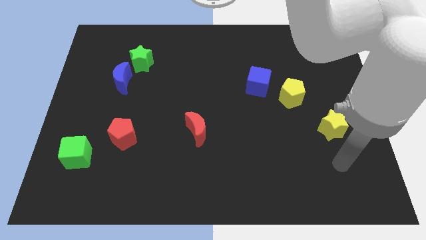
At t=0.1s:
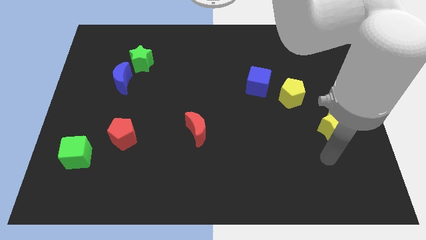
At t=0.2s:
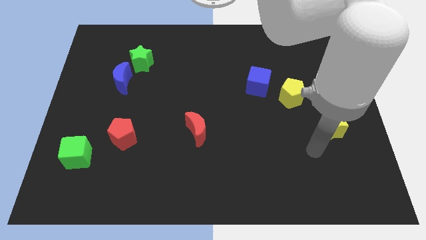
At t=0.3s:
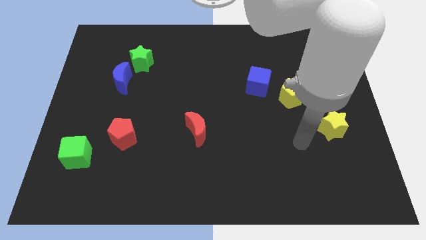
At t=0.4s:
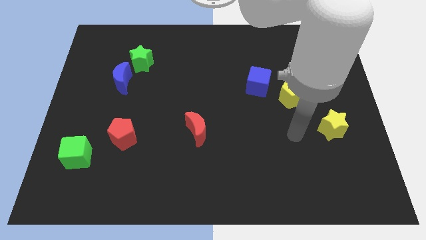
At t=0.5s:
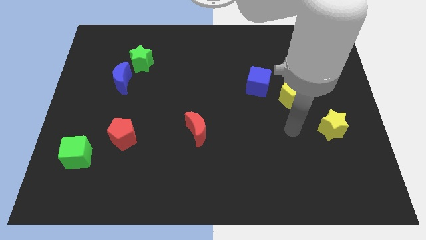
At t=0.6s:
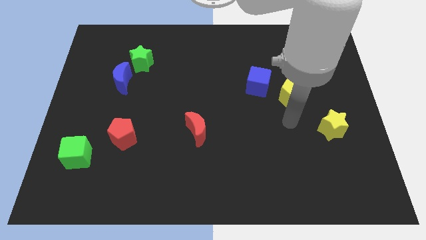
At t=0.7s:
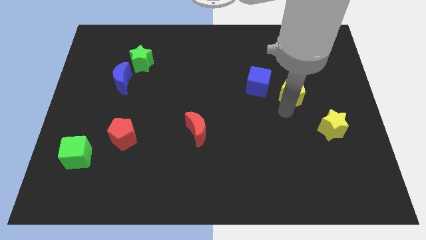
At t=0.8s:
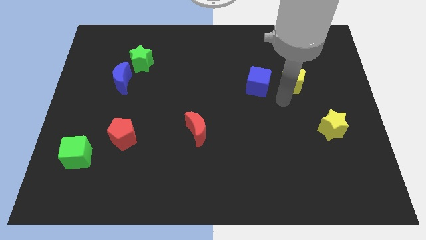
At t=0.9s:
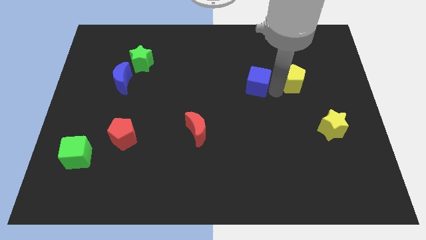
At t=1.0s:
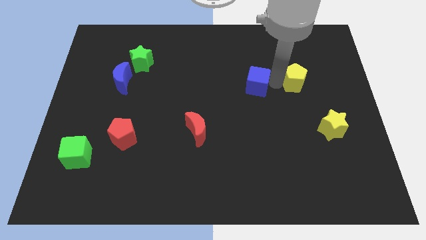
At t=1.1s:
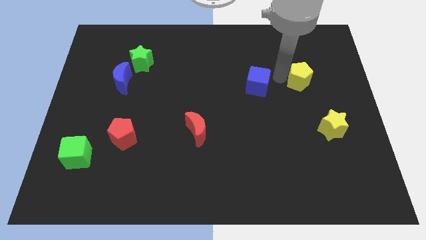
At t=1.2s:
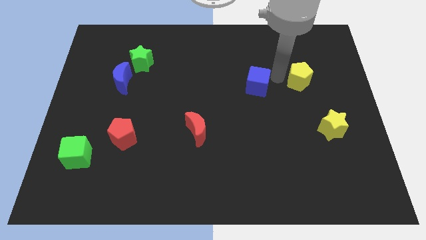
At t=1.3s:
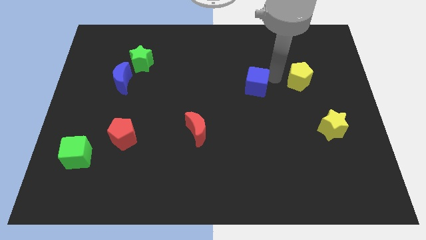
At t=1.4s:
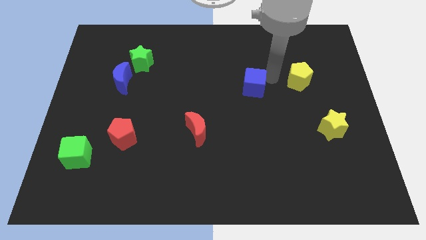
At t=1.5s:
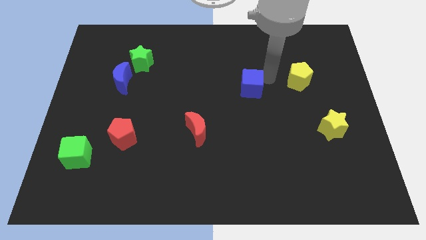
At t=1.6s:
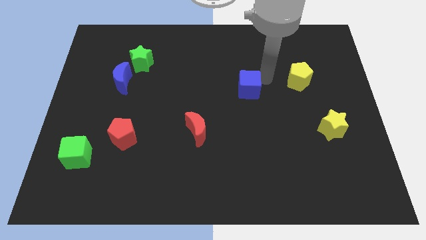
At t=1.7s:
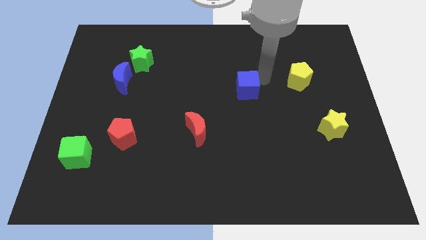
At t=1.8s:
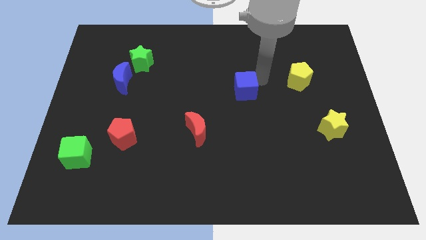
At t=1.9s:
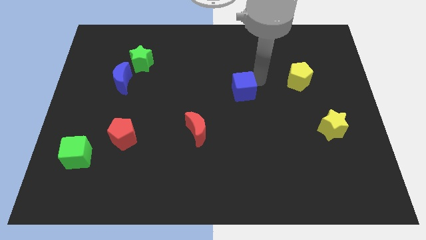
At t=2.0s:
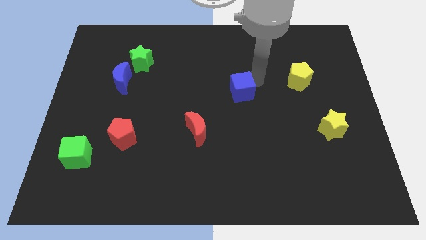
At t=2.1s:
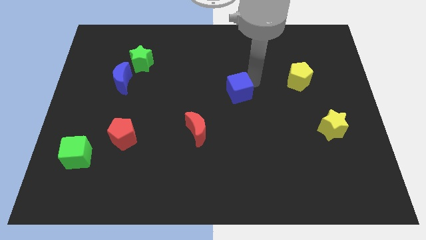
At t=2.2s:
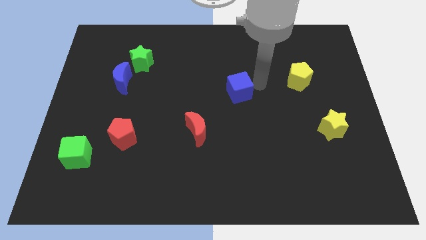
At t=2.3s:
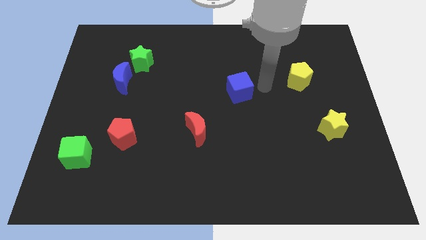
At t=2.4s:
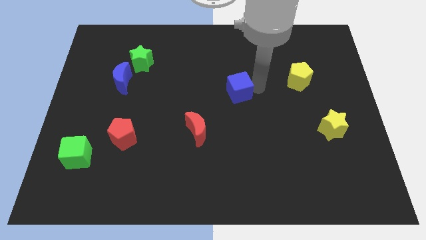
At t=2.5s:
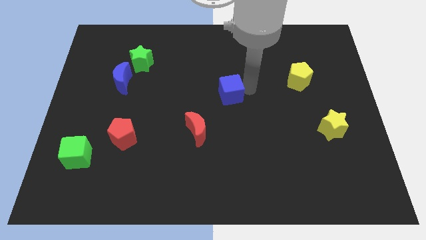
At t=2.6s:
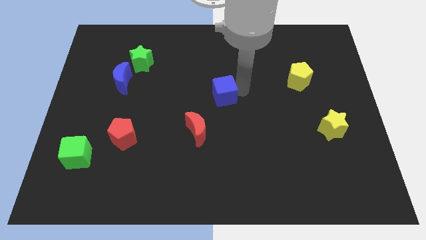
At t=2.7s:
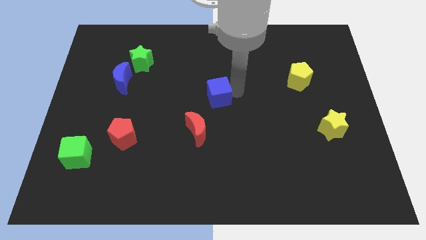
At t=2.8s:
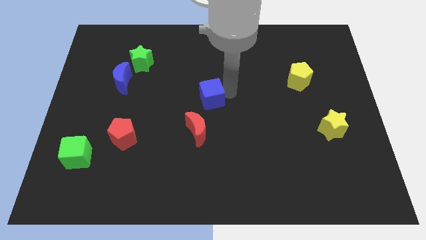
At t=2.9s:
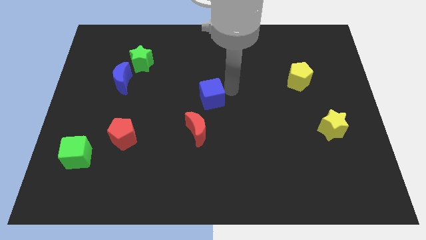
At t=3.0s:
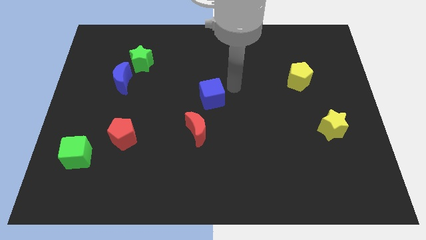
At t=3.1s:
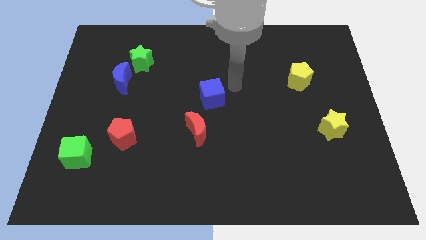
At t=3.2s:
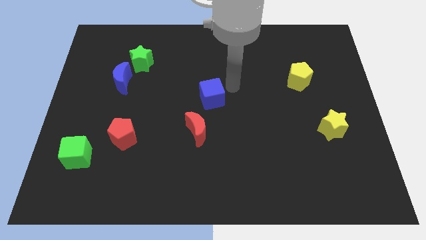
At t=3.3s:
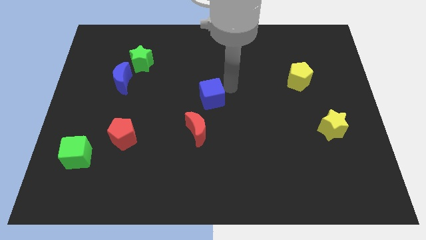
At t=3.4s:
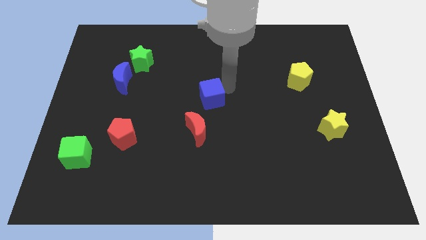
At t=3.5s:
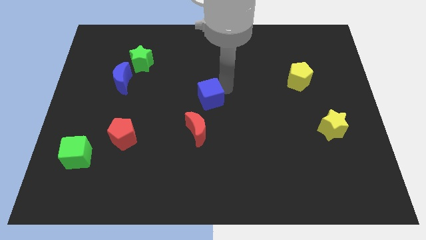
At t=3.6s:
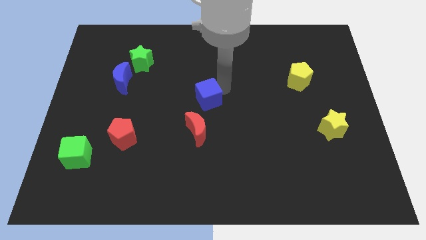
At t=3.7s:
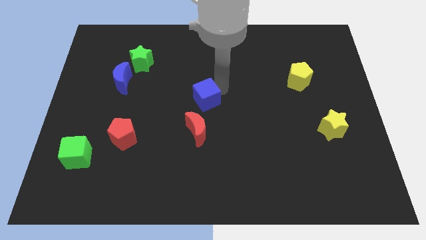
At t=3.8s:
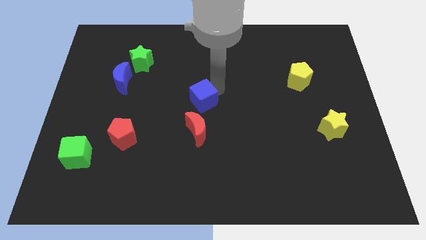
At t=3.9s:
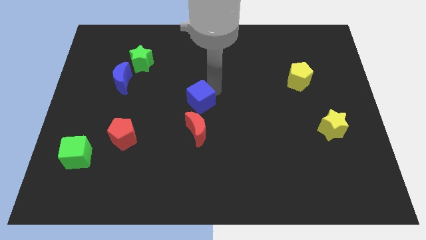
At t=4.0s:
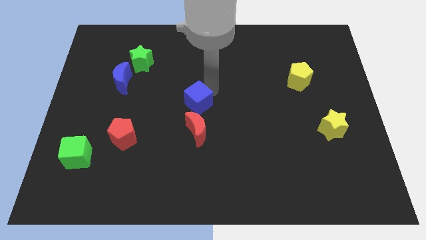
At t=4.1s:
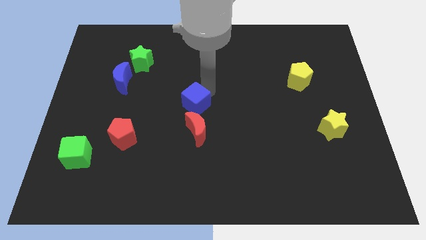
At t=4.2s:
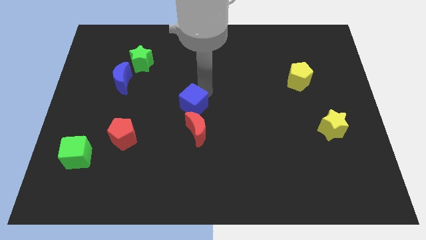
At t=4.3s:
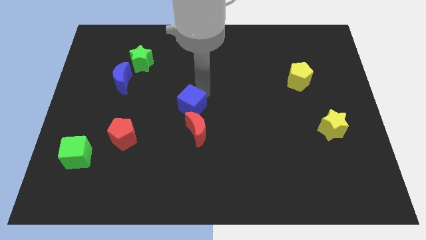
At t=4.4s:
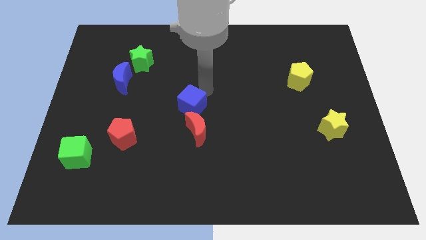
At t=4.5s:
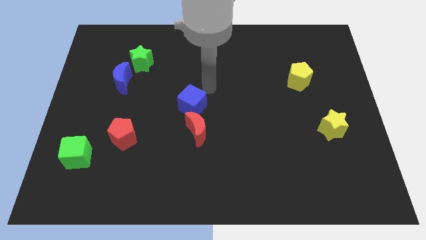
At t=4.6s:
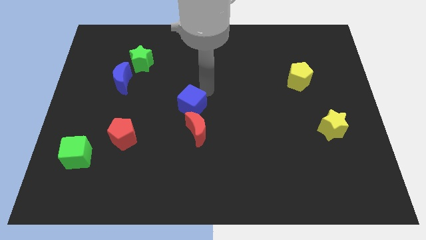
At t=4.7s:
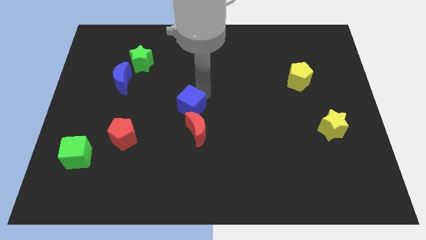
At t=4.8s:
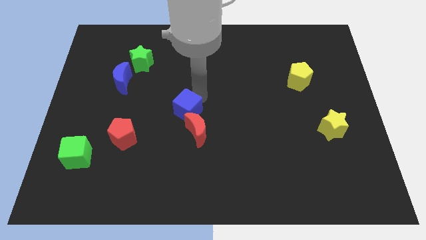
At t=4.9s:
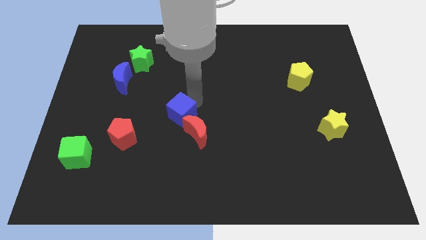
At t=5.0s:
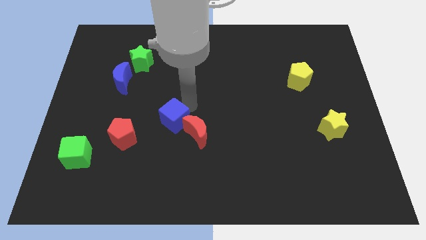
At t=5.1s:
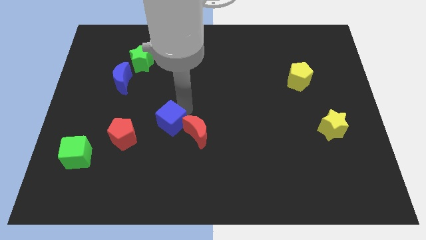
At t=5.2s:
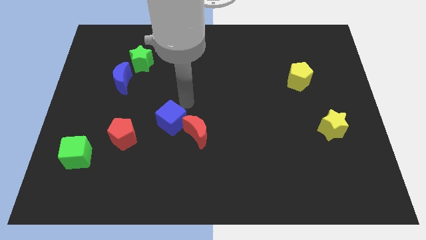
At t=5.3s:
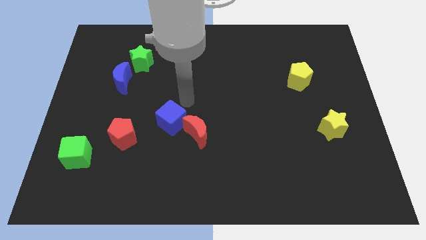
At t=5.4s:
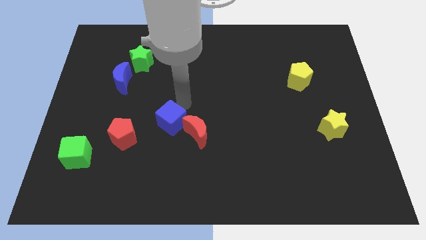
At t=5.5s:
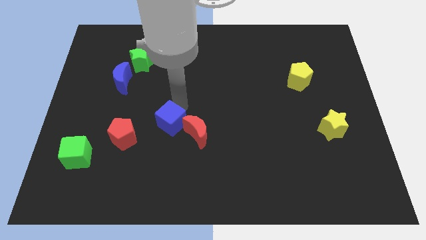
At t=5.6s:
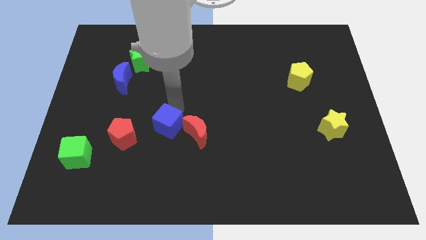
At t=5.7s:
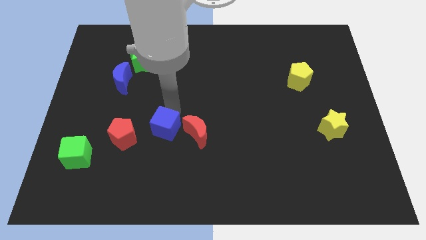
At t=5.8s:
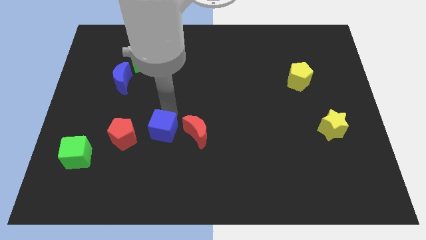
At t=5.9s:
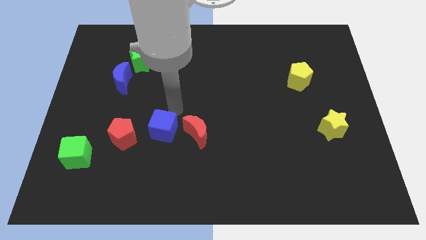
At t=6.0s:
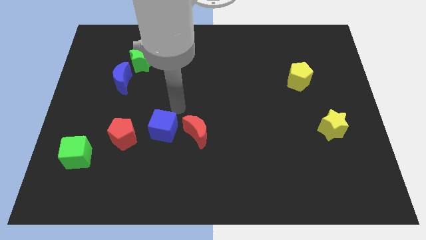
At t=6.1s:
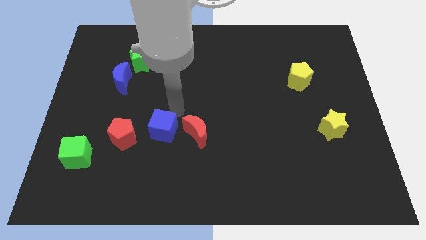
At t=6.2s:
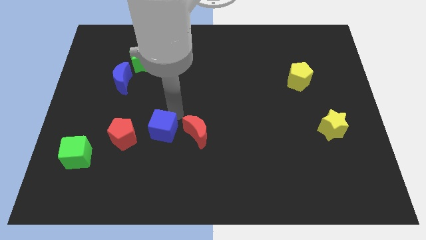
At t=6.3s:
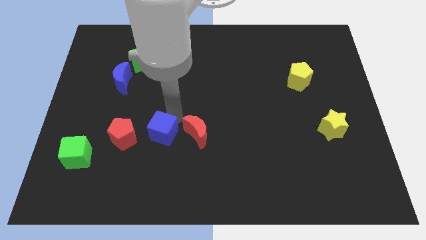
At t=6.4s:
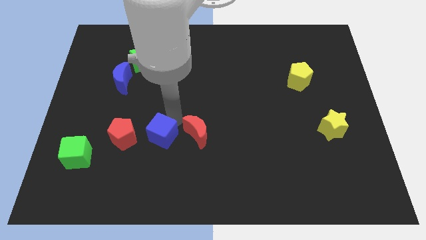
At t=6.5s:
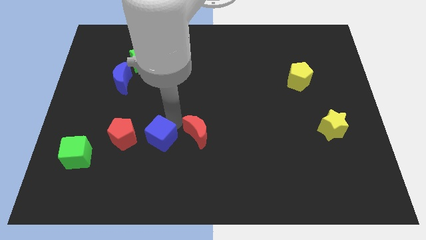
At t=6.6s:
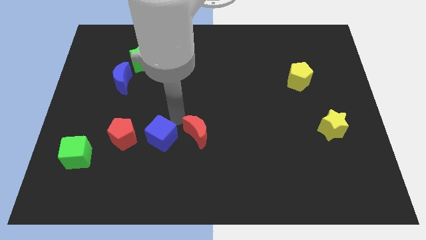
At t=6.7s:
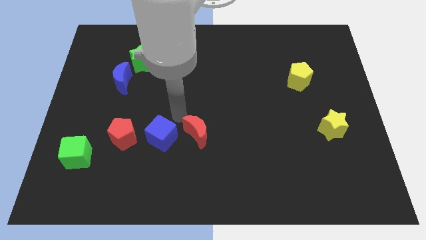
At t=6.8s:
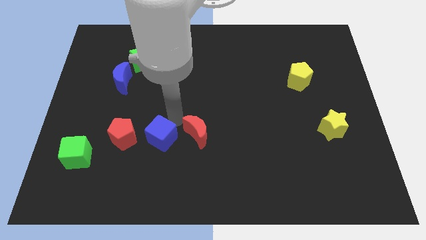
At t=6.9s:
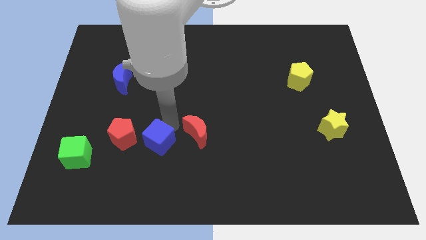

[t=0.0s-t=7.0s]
move the blue cube to the bottom right of the red pentagon

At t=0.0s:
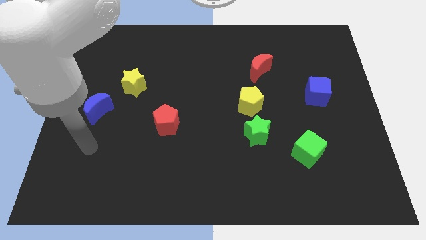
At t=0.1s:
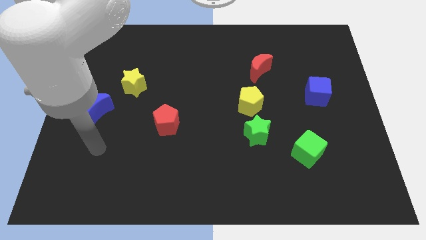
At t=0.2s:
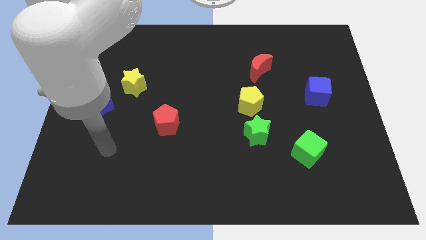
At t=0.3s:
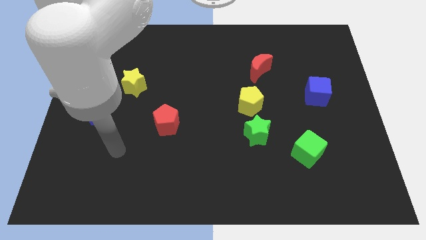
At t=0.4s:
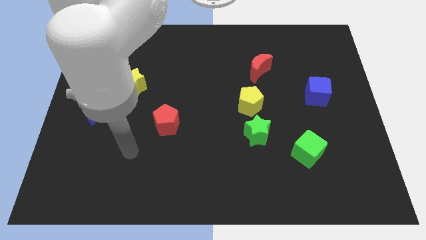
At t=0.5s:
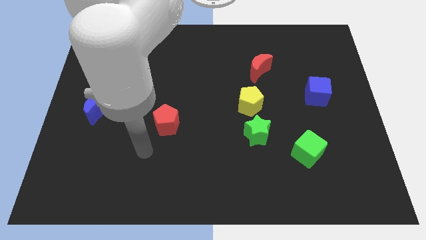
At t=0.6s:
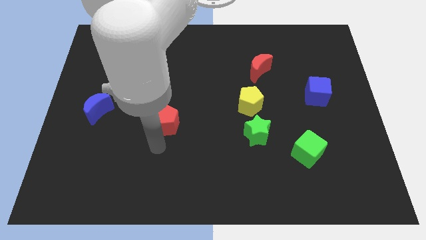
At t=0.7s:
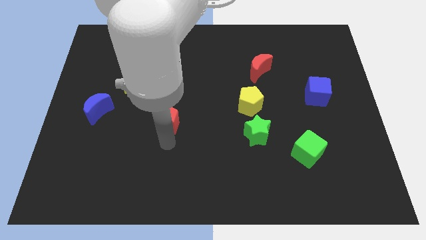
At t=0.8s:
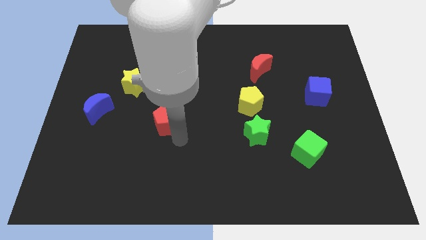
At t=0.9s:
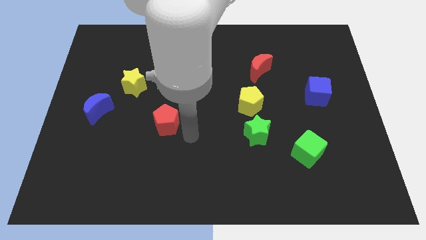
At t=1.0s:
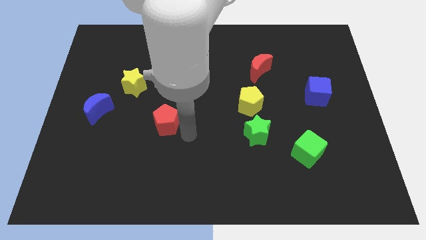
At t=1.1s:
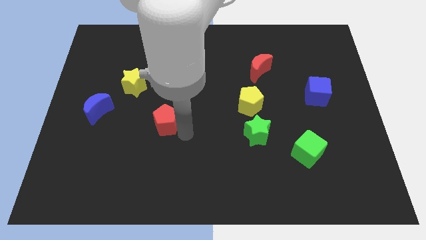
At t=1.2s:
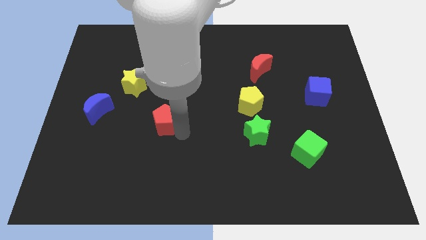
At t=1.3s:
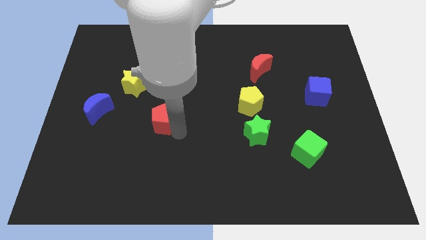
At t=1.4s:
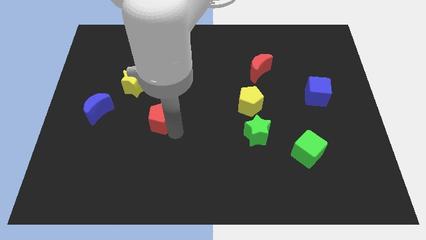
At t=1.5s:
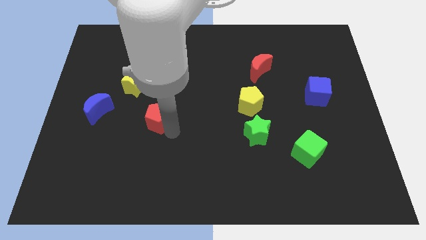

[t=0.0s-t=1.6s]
put the red pentagon right of the blue moon
